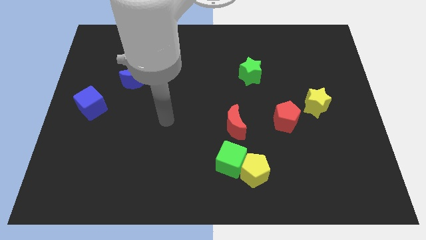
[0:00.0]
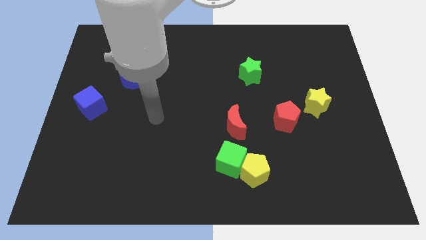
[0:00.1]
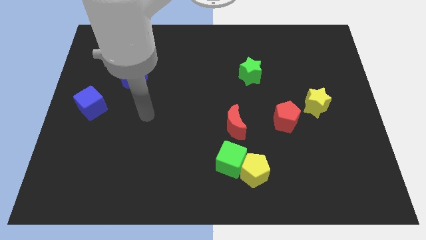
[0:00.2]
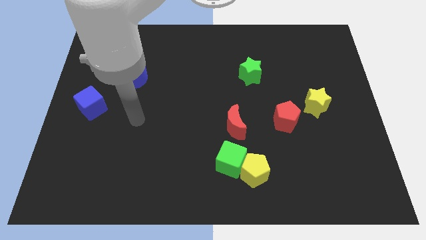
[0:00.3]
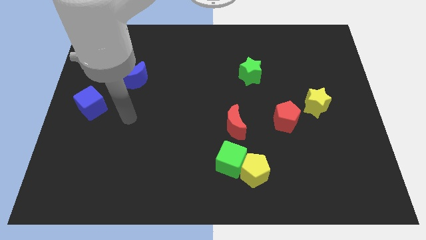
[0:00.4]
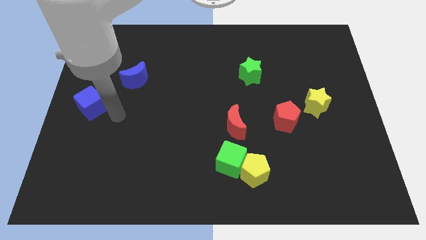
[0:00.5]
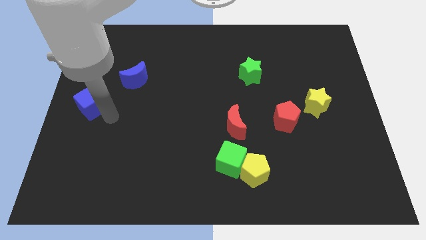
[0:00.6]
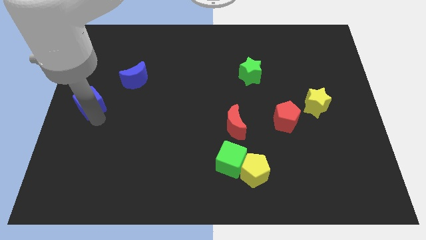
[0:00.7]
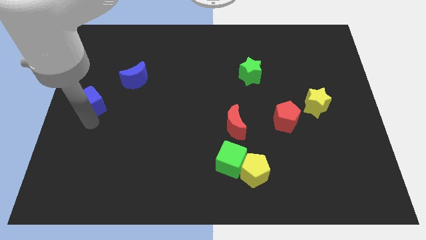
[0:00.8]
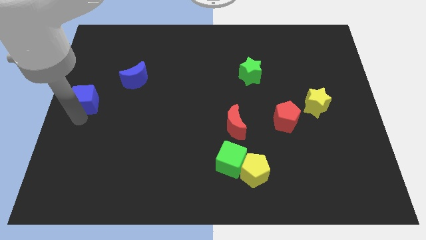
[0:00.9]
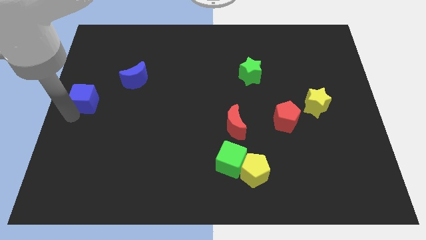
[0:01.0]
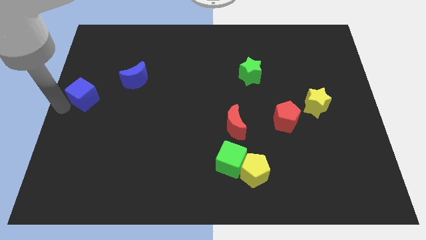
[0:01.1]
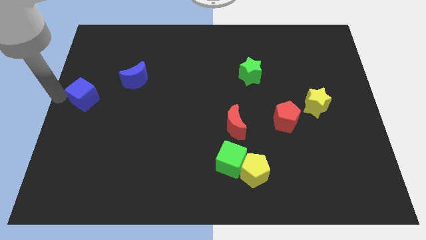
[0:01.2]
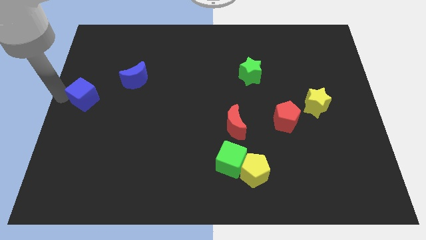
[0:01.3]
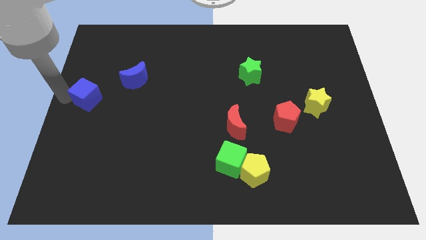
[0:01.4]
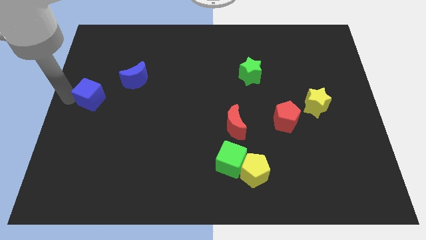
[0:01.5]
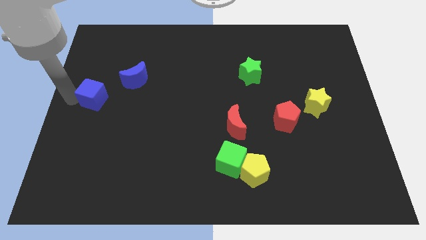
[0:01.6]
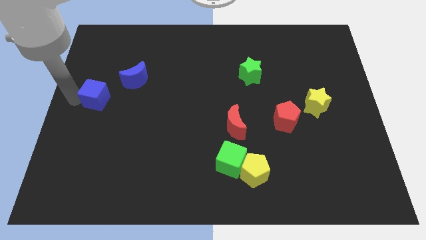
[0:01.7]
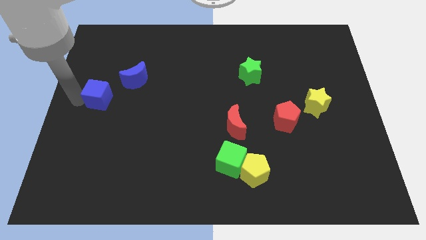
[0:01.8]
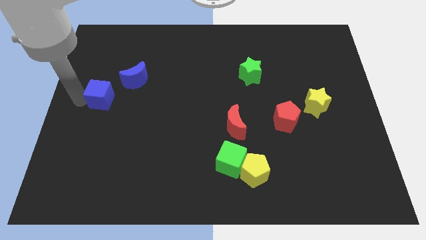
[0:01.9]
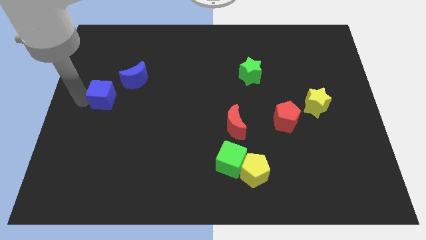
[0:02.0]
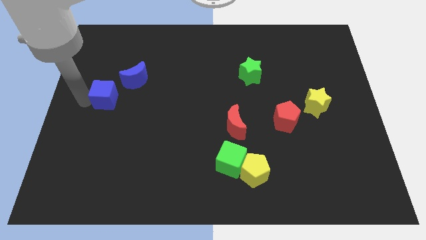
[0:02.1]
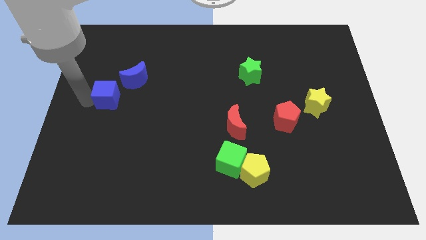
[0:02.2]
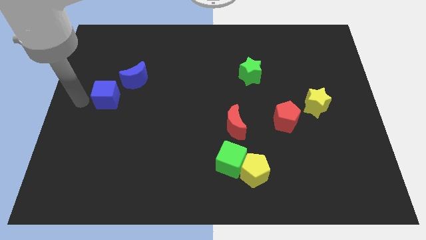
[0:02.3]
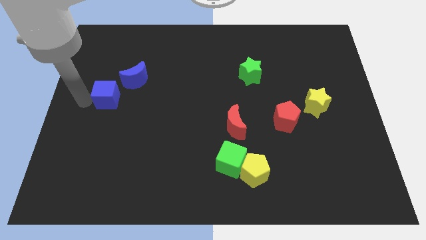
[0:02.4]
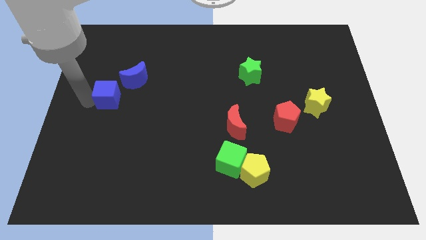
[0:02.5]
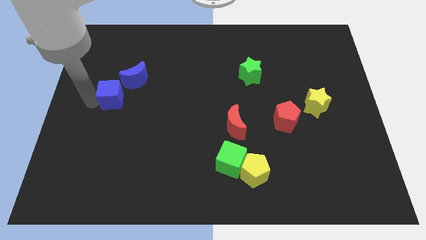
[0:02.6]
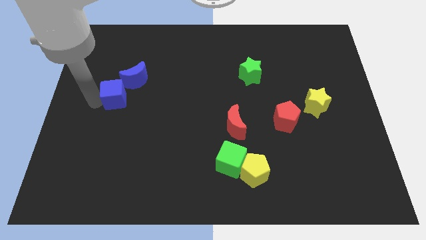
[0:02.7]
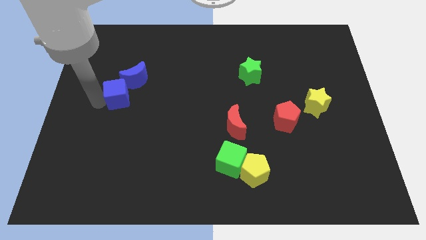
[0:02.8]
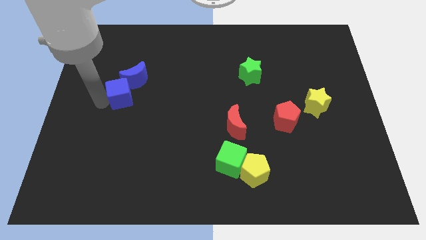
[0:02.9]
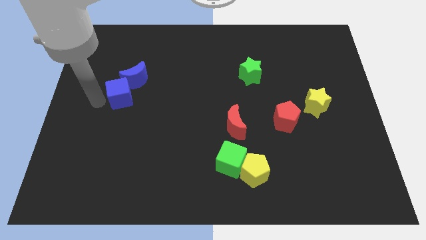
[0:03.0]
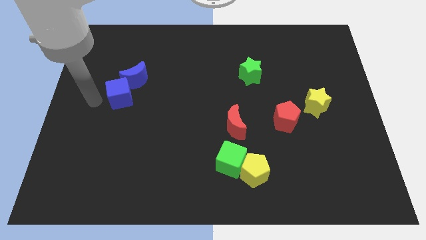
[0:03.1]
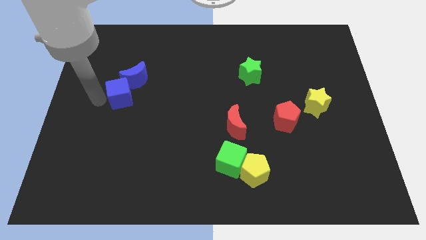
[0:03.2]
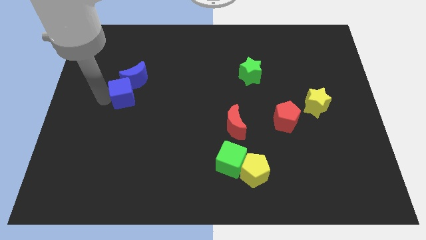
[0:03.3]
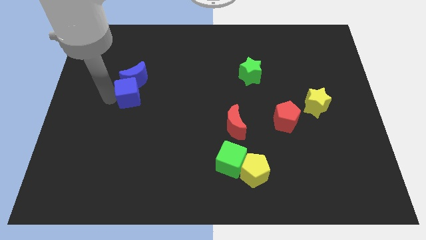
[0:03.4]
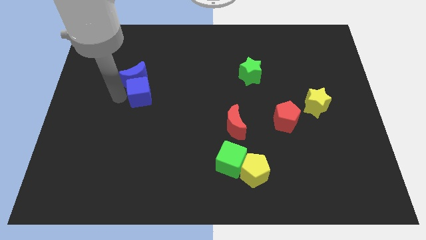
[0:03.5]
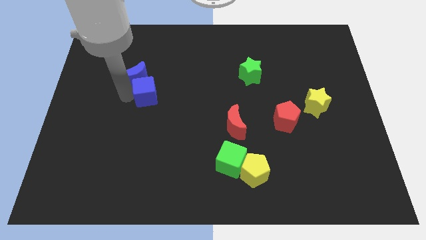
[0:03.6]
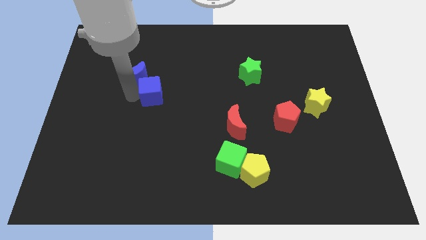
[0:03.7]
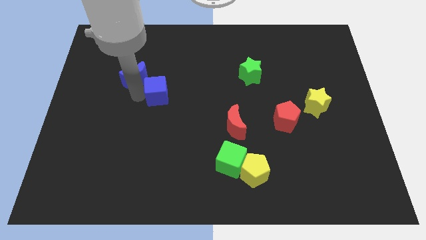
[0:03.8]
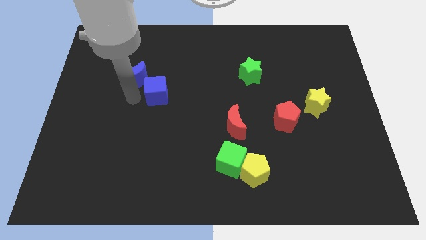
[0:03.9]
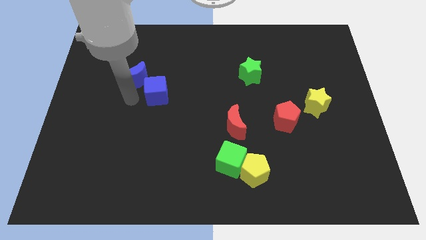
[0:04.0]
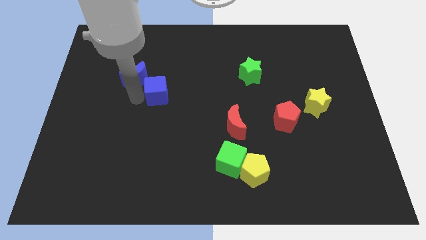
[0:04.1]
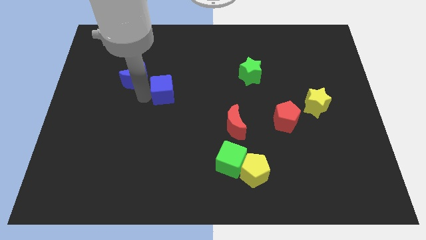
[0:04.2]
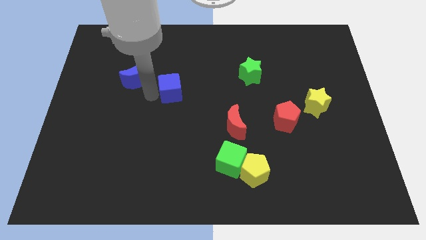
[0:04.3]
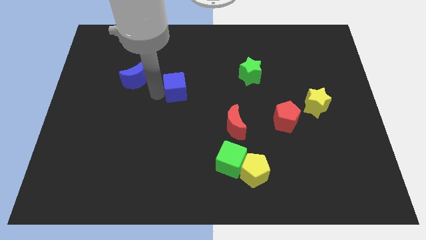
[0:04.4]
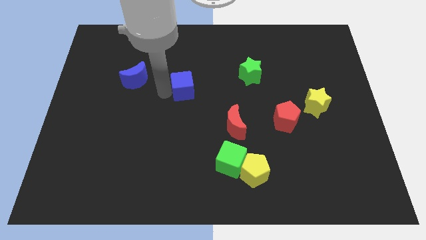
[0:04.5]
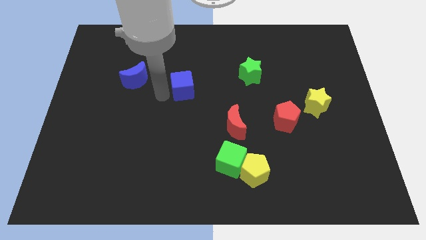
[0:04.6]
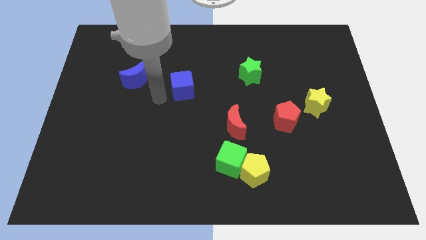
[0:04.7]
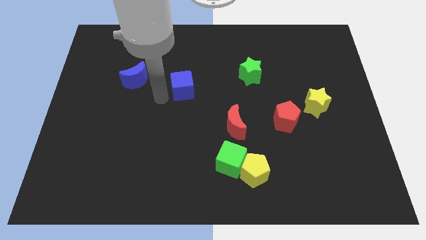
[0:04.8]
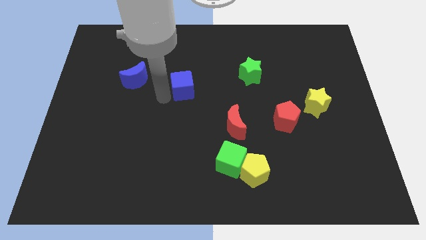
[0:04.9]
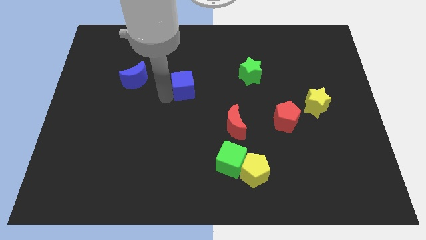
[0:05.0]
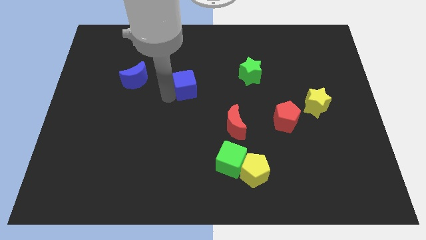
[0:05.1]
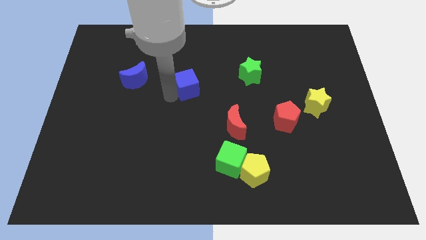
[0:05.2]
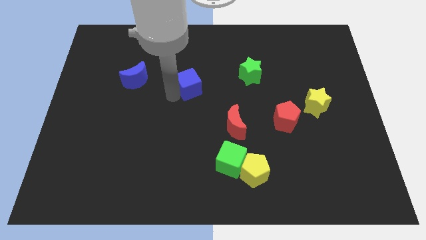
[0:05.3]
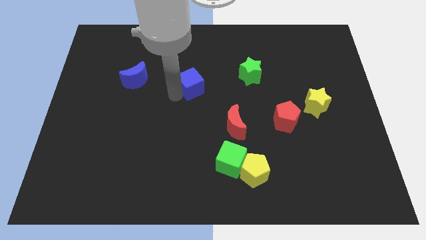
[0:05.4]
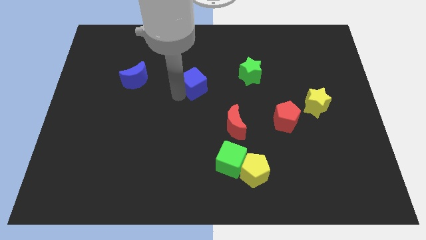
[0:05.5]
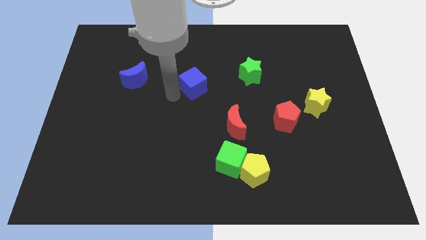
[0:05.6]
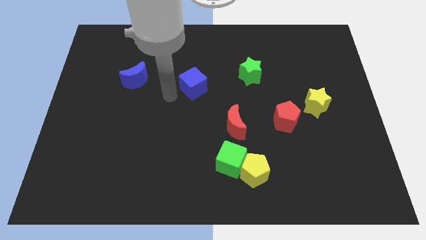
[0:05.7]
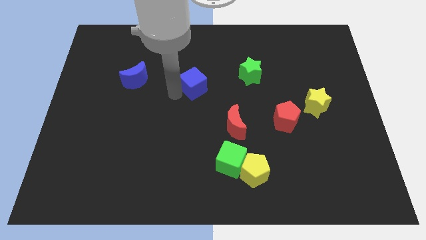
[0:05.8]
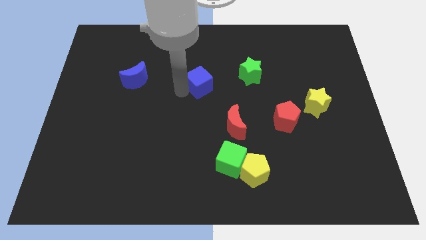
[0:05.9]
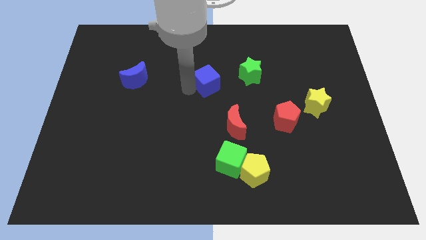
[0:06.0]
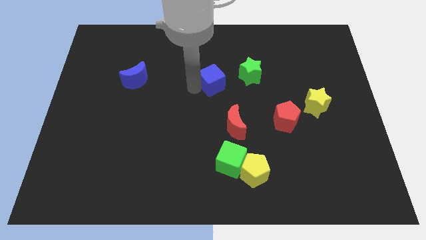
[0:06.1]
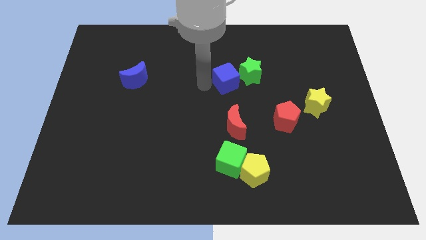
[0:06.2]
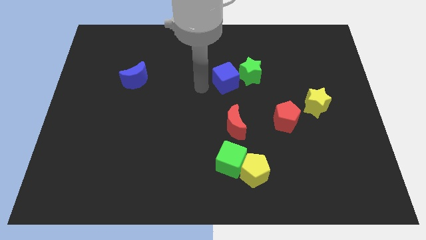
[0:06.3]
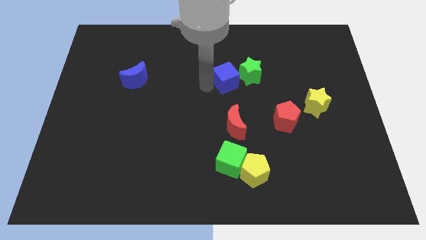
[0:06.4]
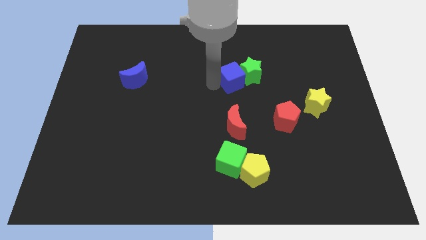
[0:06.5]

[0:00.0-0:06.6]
put the blue cube close to the green star
